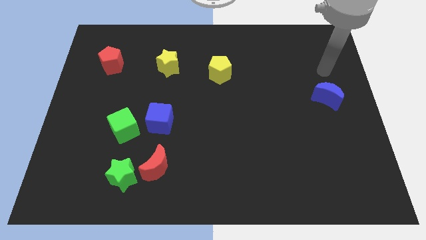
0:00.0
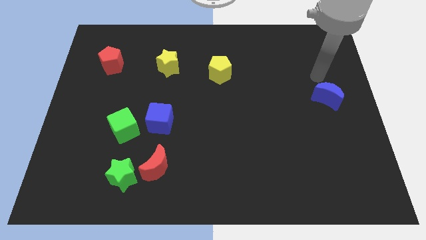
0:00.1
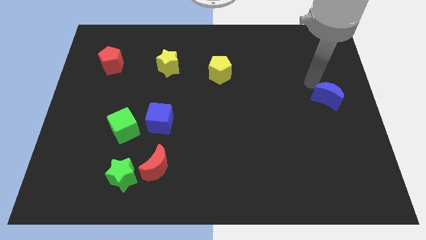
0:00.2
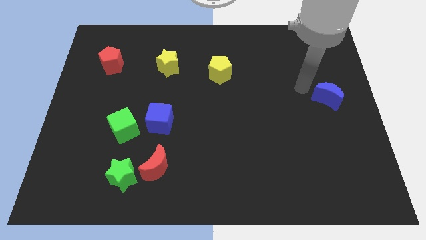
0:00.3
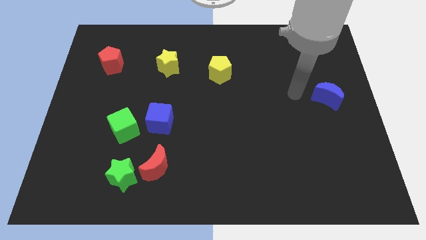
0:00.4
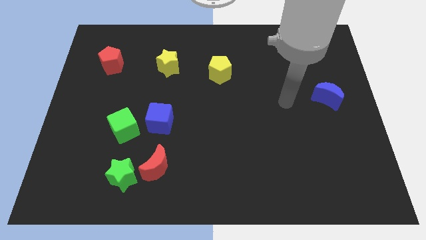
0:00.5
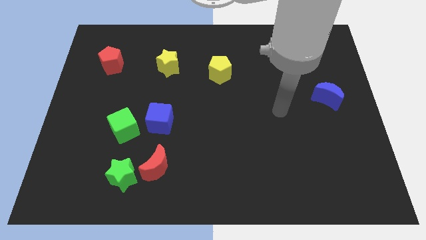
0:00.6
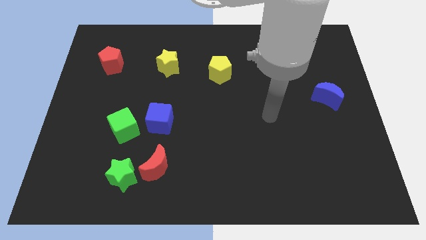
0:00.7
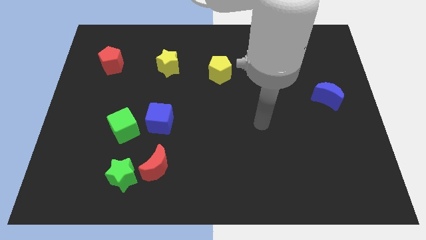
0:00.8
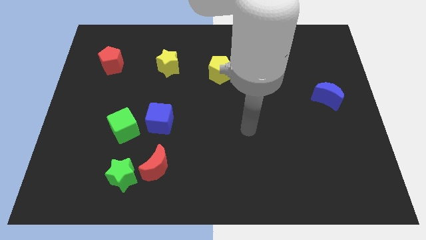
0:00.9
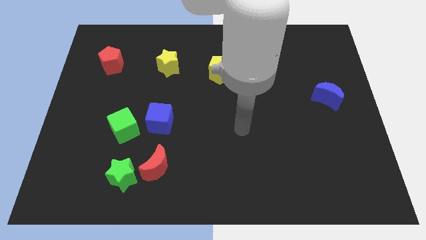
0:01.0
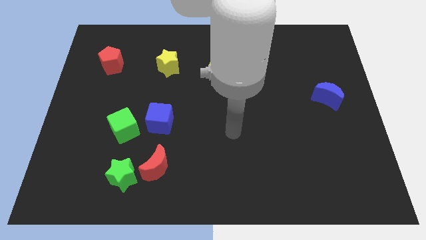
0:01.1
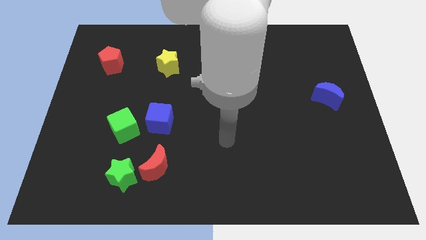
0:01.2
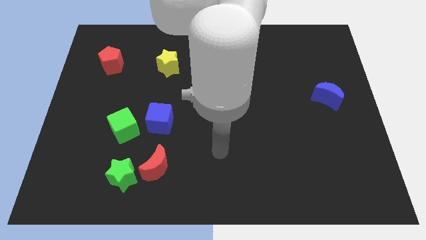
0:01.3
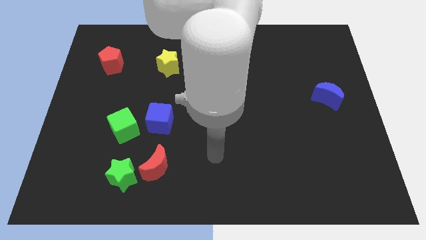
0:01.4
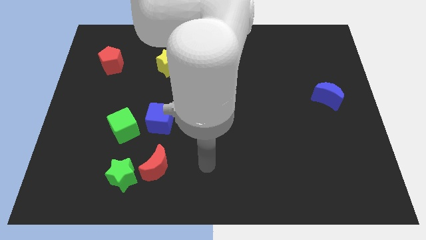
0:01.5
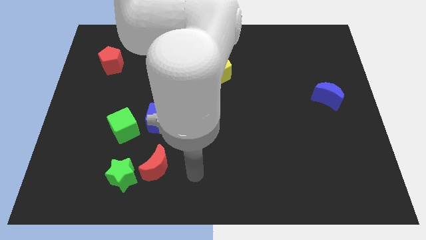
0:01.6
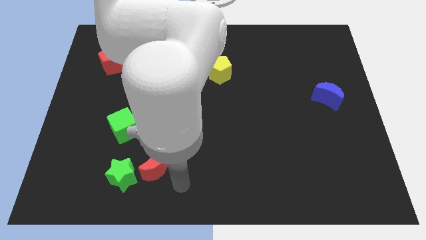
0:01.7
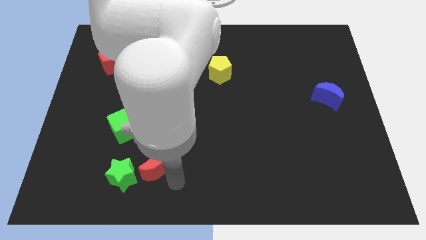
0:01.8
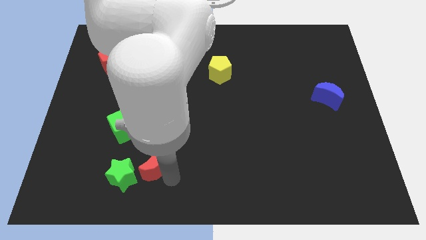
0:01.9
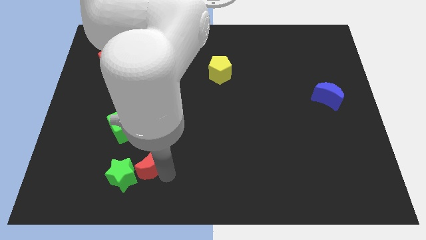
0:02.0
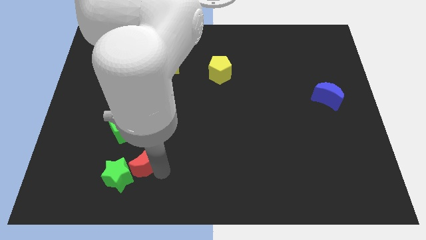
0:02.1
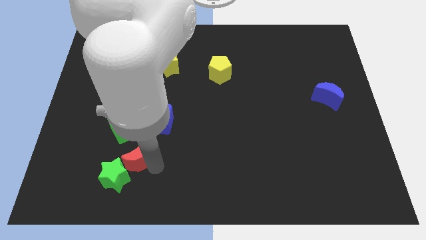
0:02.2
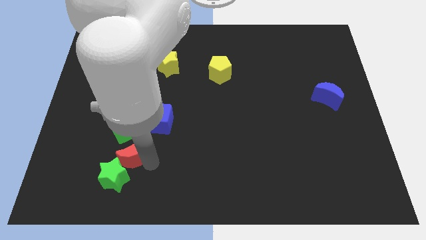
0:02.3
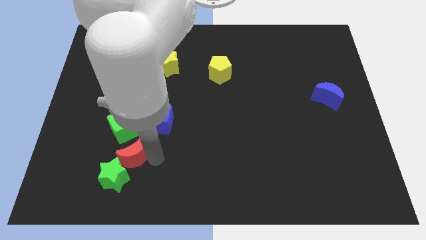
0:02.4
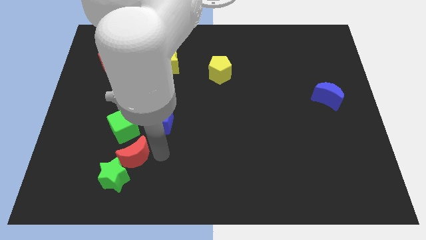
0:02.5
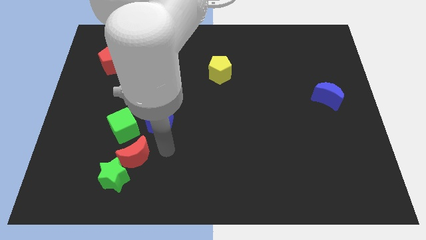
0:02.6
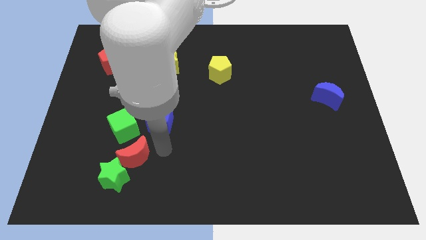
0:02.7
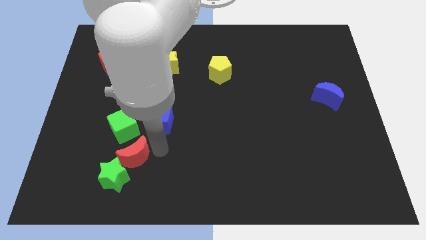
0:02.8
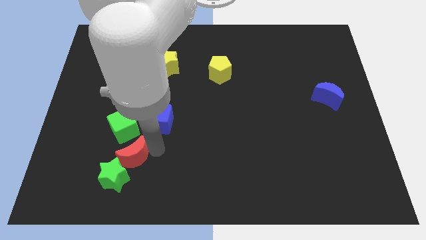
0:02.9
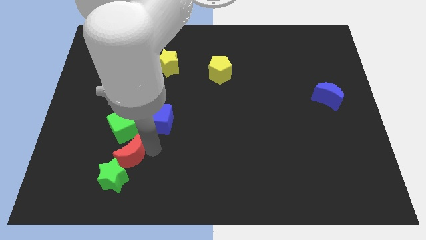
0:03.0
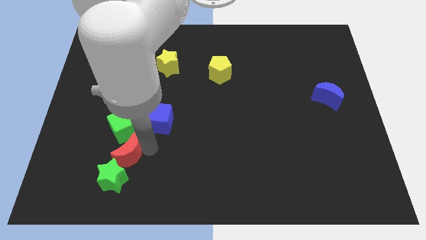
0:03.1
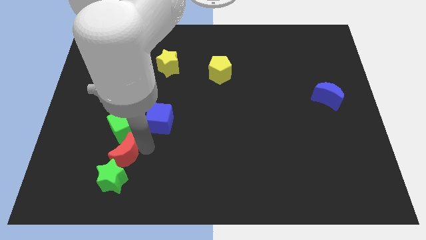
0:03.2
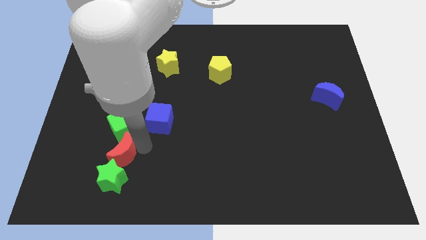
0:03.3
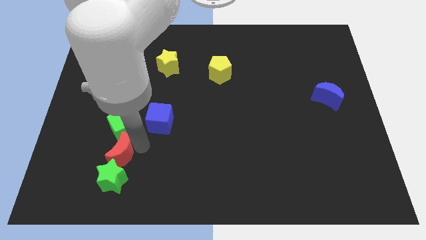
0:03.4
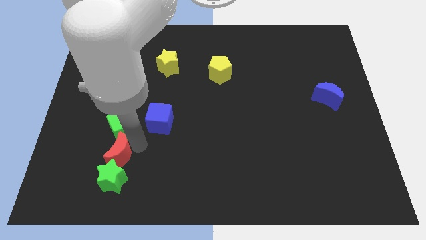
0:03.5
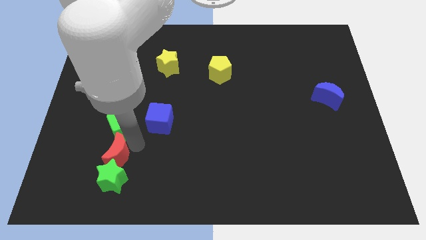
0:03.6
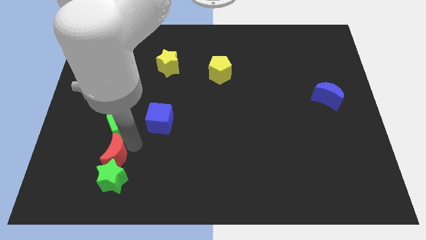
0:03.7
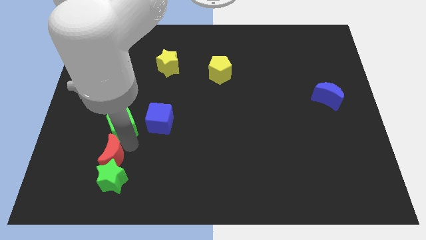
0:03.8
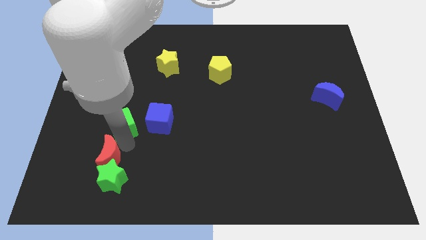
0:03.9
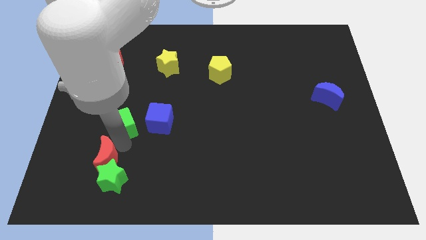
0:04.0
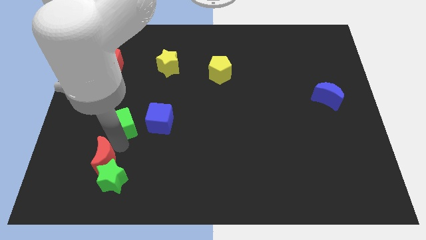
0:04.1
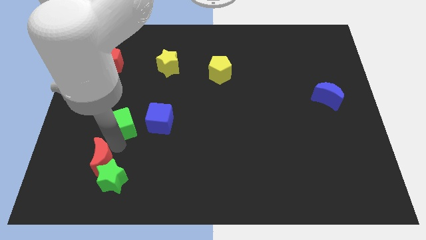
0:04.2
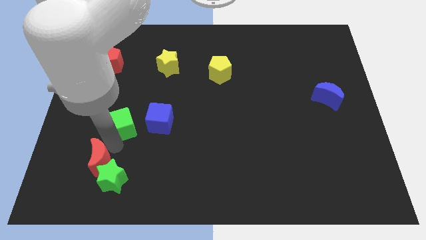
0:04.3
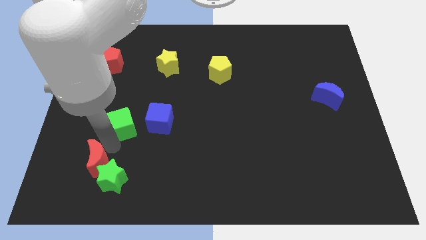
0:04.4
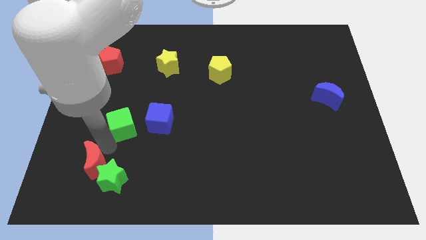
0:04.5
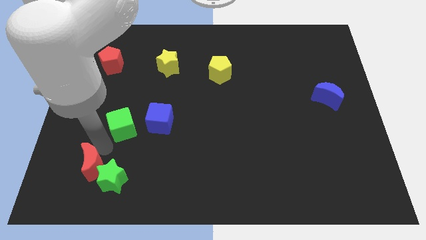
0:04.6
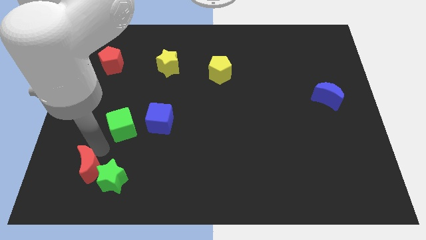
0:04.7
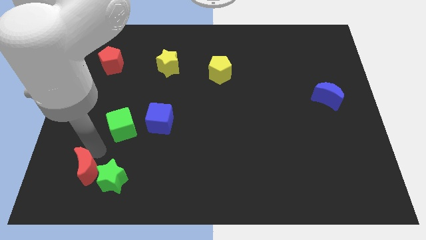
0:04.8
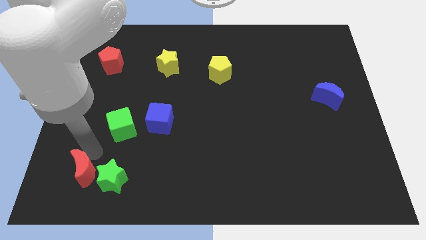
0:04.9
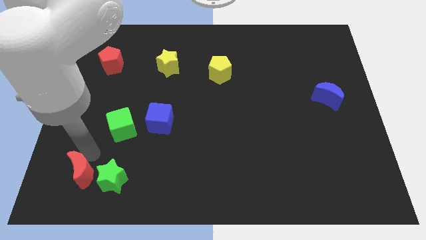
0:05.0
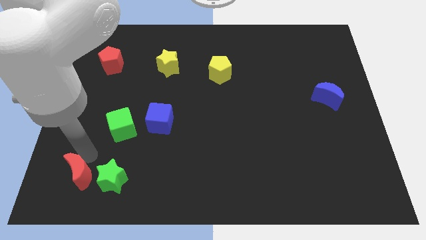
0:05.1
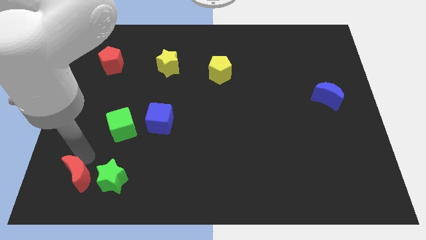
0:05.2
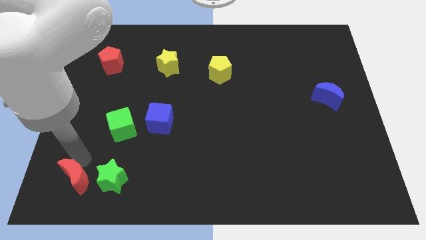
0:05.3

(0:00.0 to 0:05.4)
slide the red moon to the bottom left corner

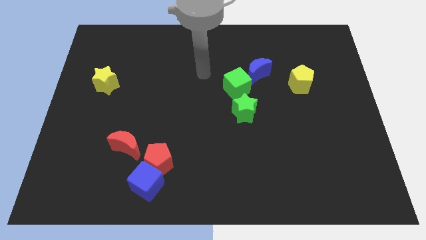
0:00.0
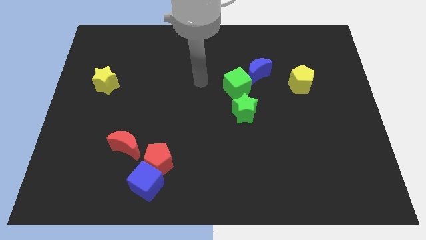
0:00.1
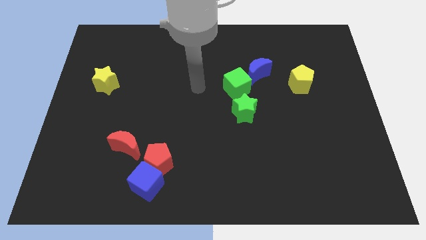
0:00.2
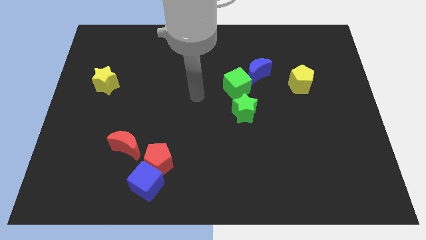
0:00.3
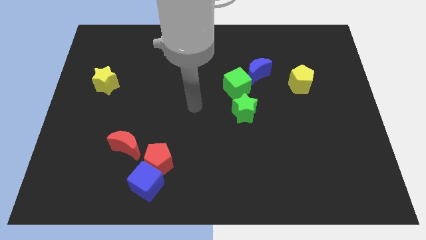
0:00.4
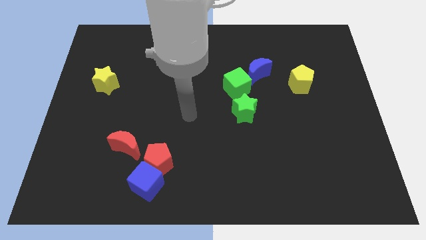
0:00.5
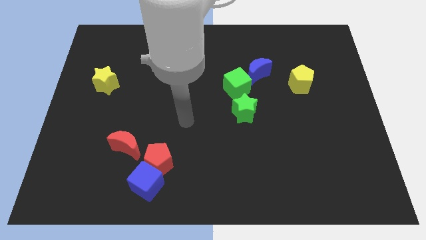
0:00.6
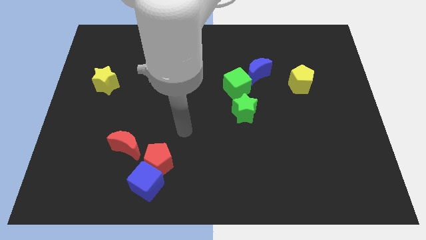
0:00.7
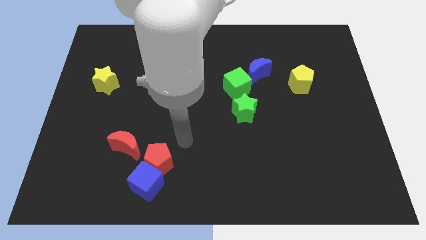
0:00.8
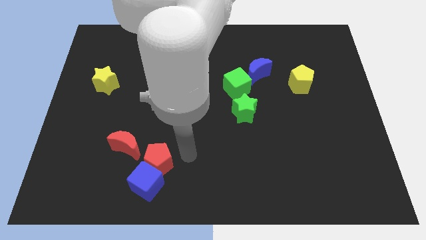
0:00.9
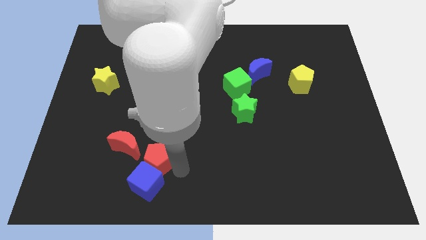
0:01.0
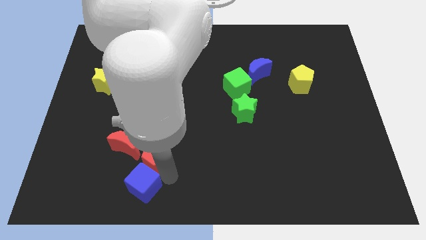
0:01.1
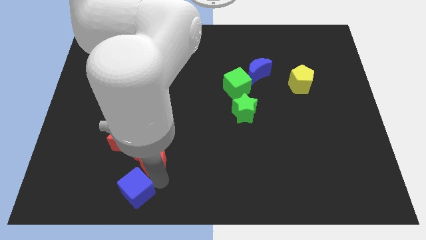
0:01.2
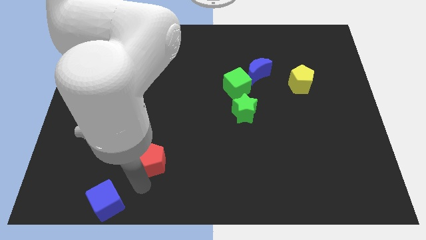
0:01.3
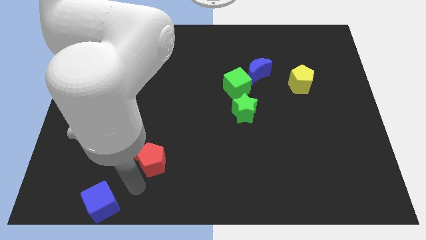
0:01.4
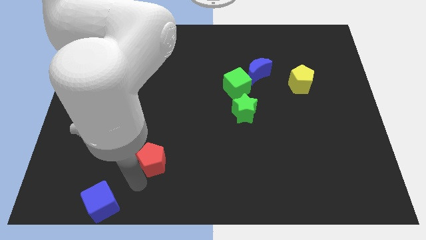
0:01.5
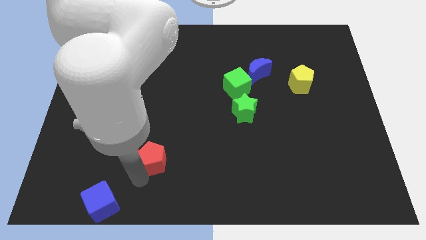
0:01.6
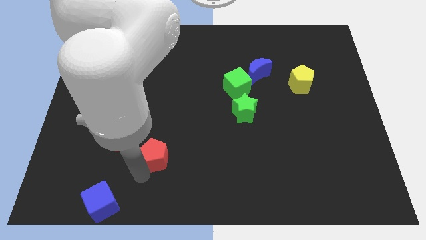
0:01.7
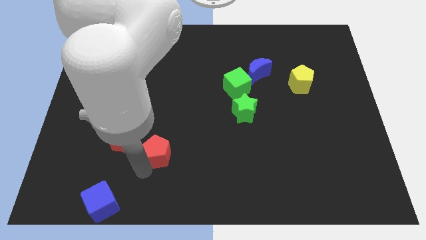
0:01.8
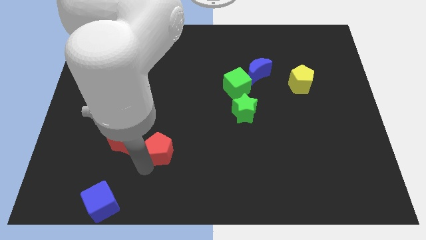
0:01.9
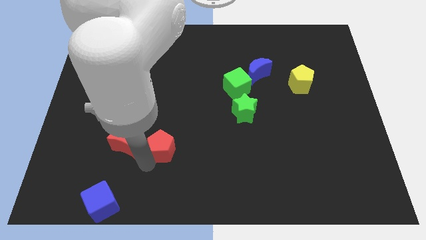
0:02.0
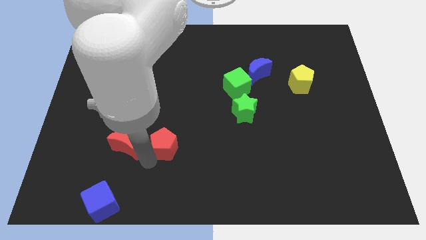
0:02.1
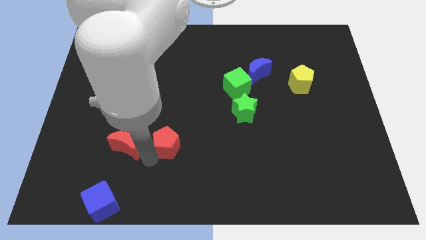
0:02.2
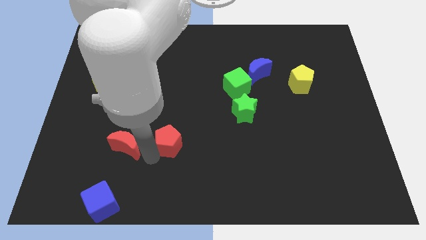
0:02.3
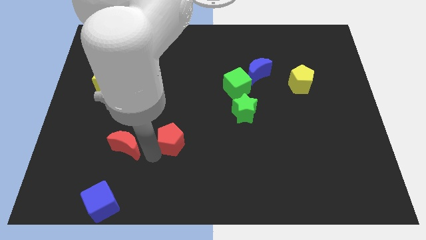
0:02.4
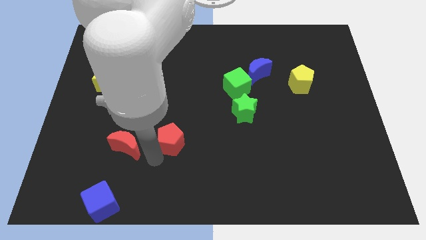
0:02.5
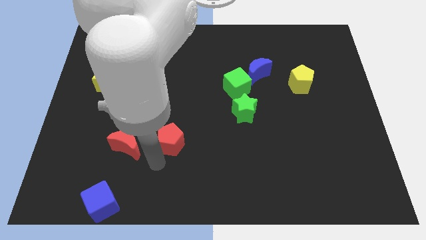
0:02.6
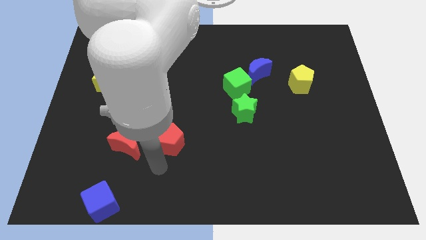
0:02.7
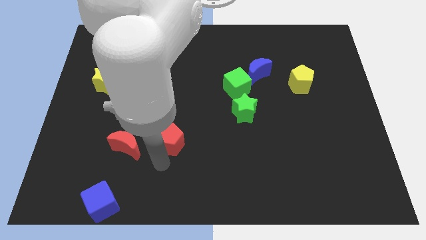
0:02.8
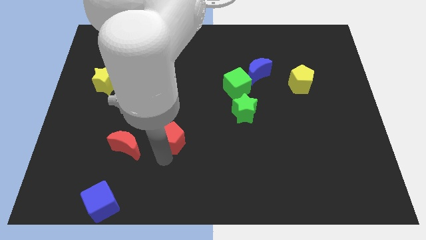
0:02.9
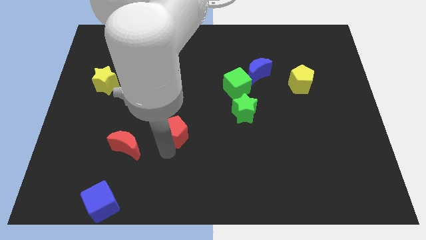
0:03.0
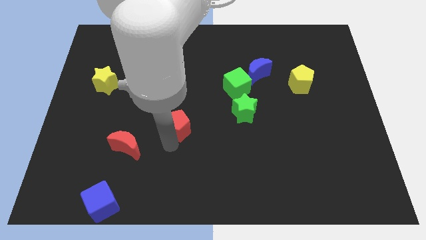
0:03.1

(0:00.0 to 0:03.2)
put the red pentagon to the middle
